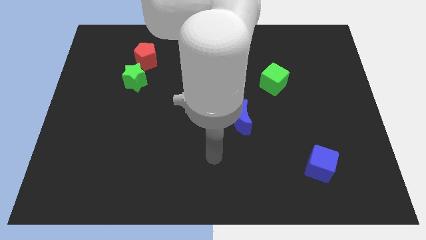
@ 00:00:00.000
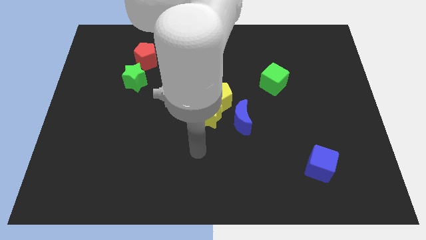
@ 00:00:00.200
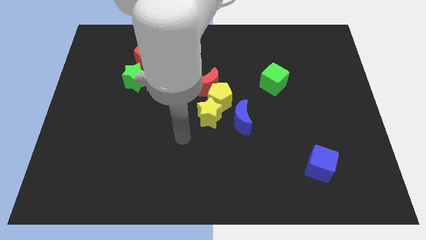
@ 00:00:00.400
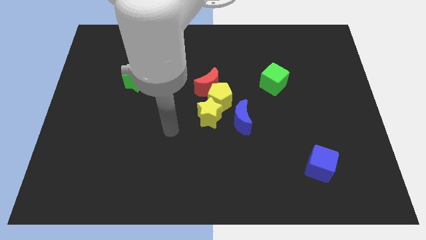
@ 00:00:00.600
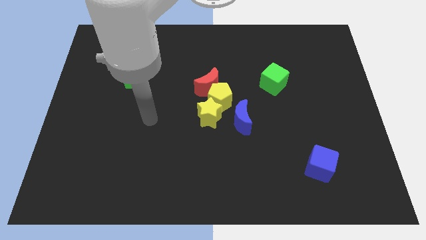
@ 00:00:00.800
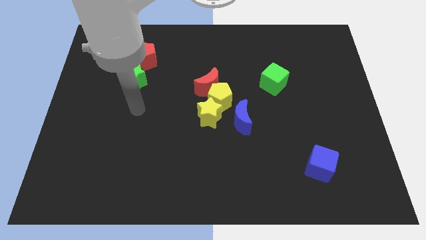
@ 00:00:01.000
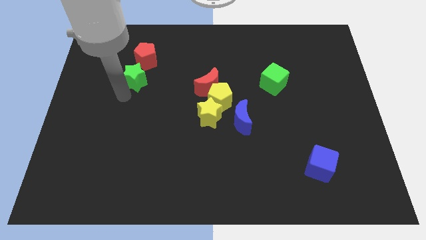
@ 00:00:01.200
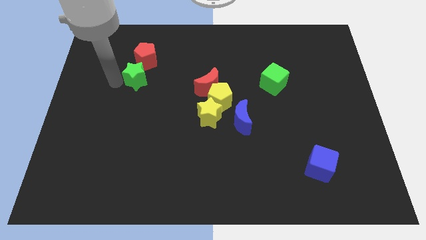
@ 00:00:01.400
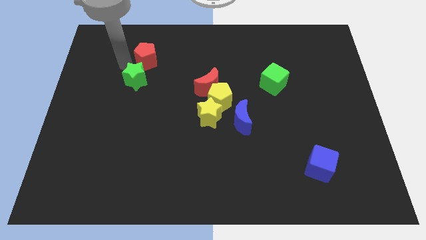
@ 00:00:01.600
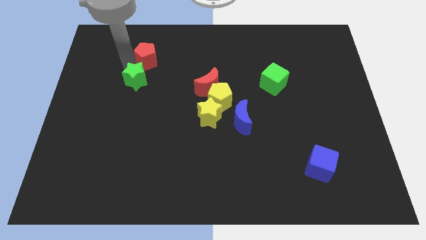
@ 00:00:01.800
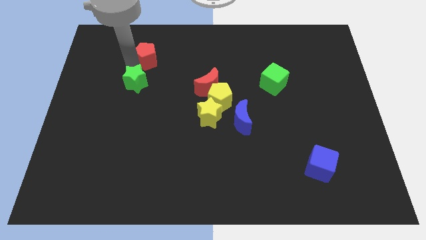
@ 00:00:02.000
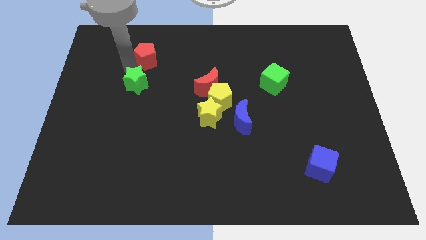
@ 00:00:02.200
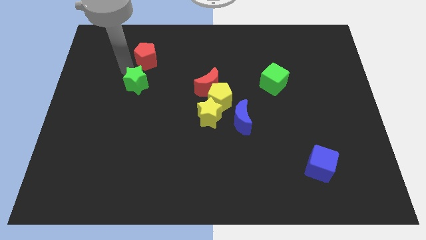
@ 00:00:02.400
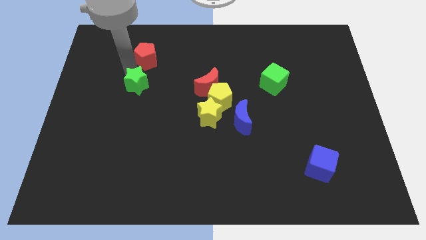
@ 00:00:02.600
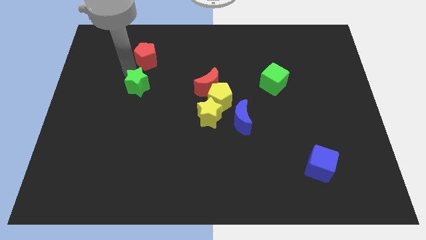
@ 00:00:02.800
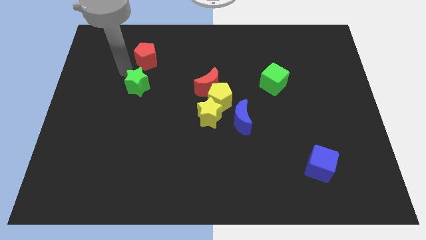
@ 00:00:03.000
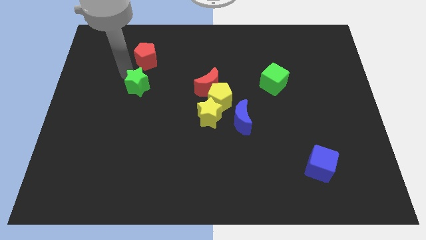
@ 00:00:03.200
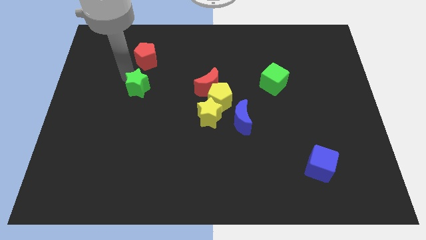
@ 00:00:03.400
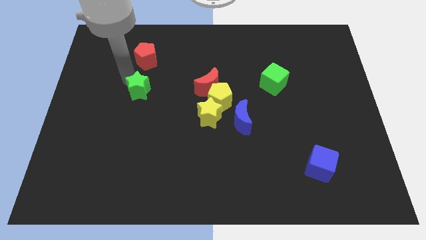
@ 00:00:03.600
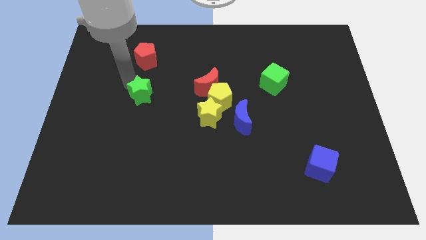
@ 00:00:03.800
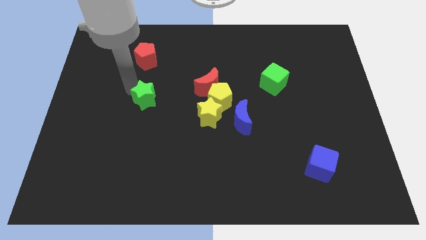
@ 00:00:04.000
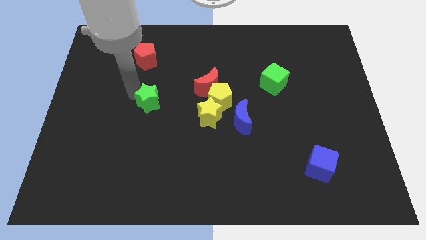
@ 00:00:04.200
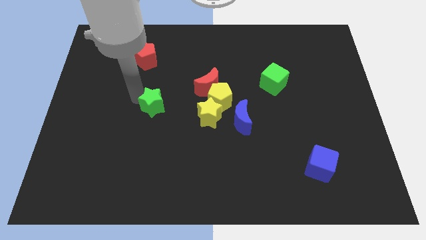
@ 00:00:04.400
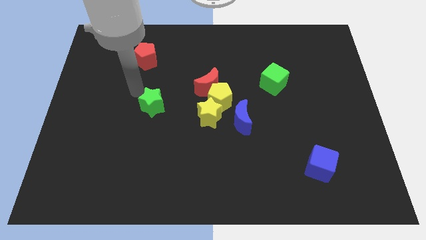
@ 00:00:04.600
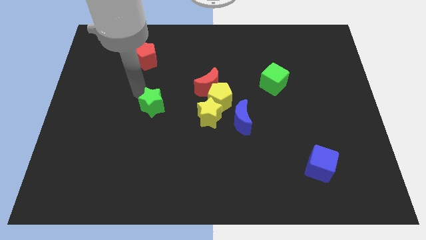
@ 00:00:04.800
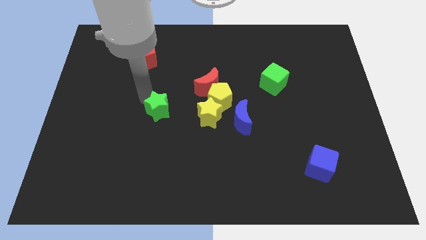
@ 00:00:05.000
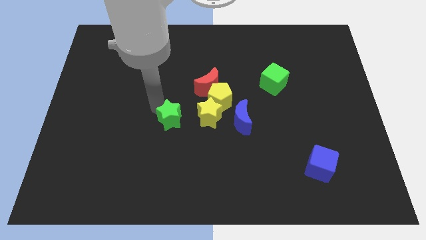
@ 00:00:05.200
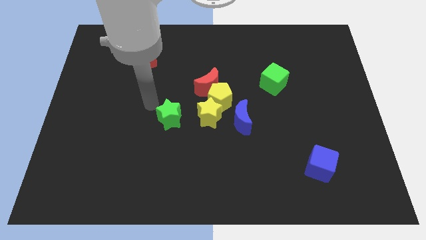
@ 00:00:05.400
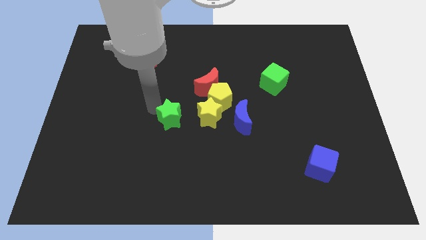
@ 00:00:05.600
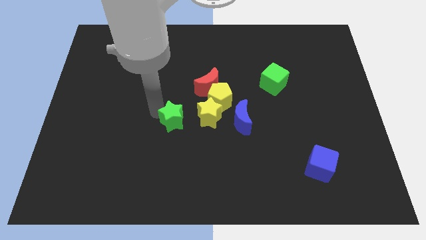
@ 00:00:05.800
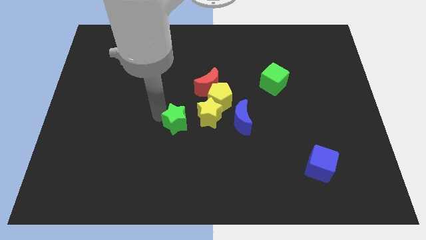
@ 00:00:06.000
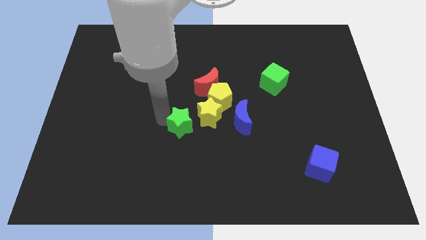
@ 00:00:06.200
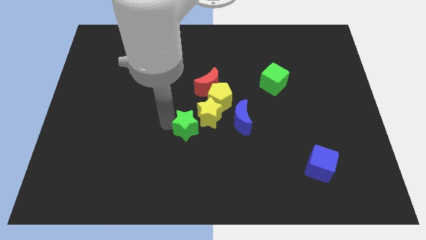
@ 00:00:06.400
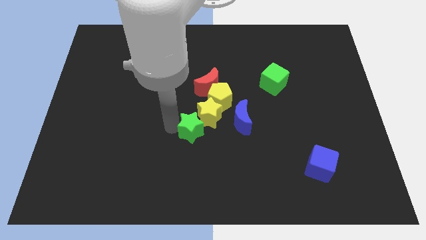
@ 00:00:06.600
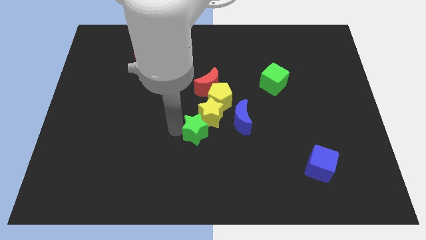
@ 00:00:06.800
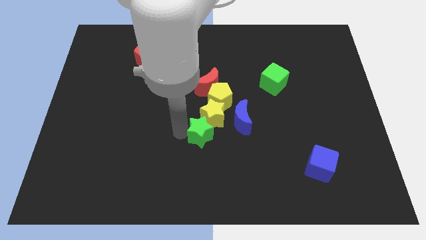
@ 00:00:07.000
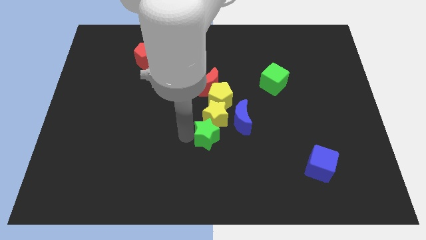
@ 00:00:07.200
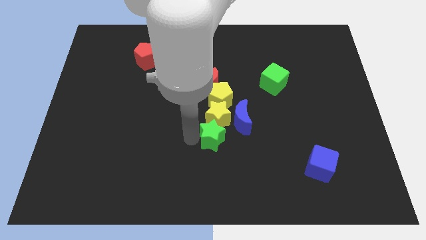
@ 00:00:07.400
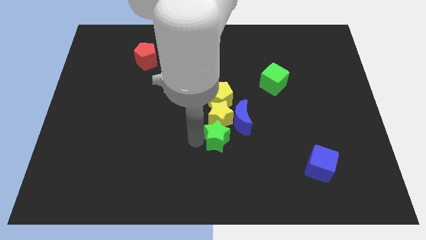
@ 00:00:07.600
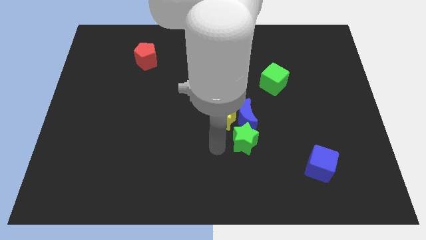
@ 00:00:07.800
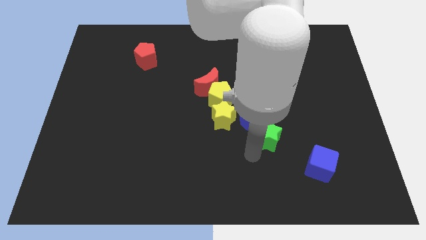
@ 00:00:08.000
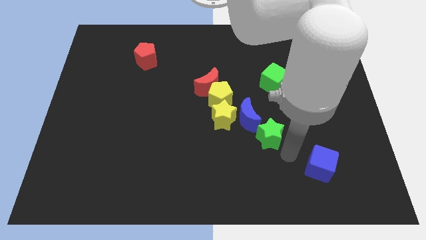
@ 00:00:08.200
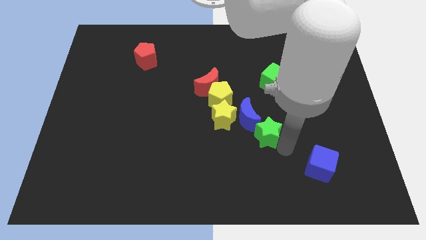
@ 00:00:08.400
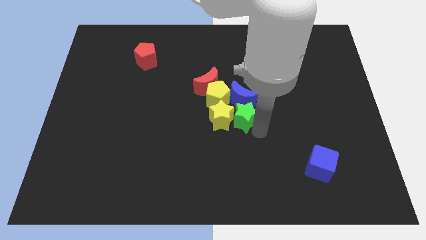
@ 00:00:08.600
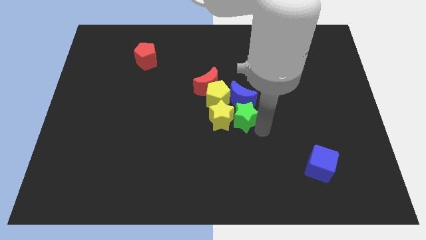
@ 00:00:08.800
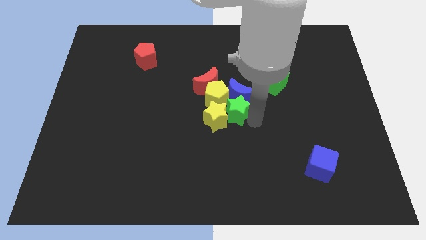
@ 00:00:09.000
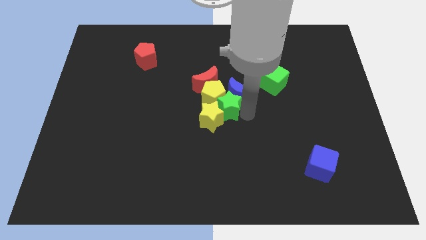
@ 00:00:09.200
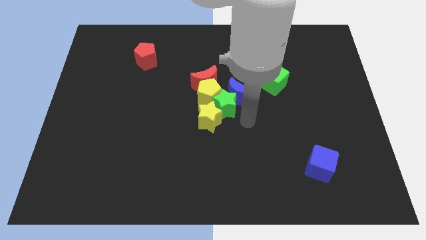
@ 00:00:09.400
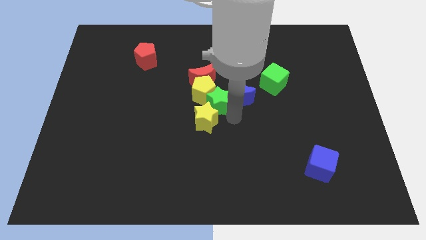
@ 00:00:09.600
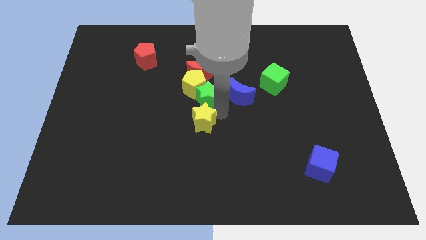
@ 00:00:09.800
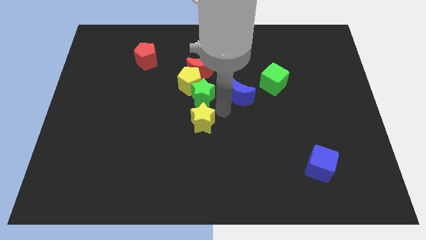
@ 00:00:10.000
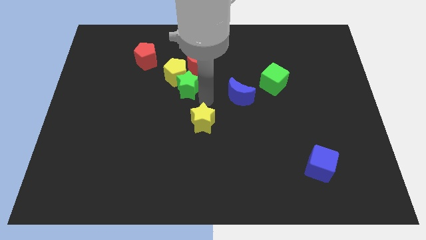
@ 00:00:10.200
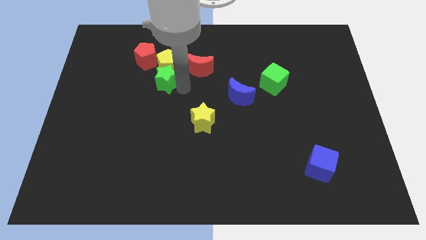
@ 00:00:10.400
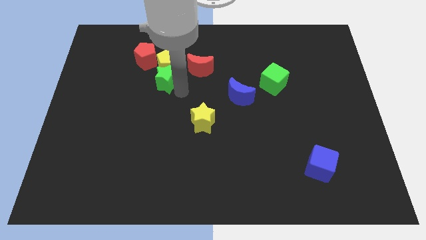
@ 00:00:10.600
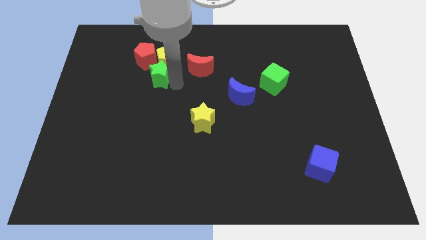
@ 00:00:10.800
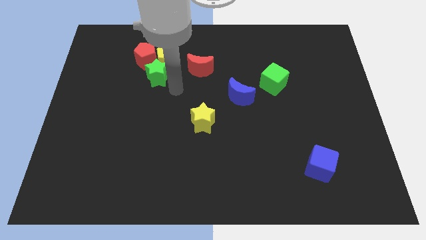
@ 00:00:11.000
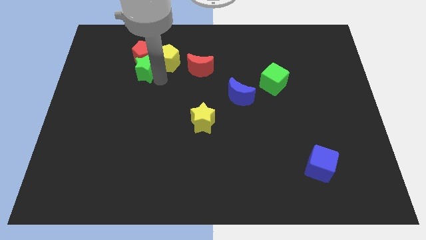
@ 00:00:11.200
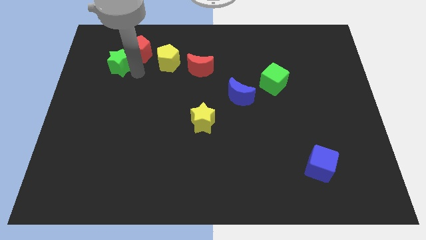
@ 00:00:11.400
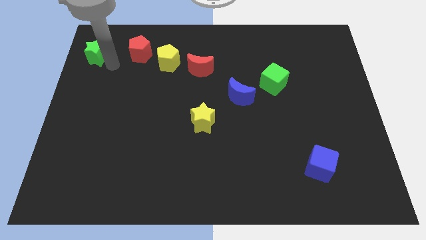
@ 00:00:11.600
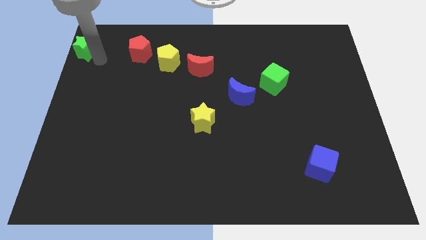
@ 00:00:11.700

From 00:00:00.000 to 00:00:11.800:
slide the green star to the top left corner

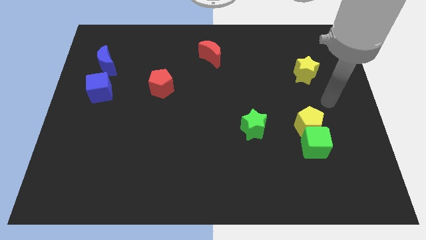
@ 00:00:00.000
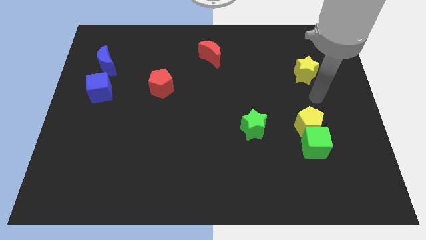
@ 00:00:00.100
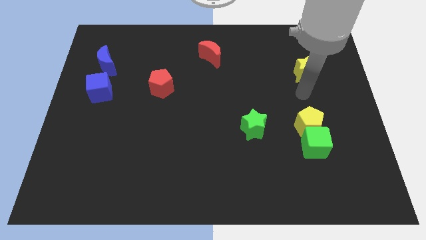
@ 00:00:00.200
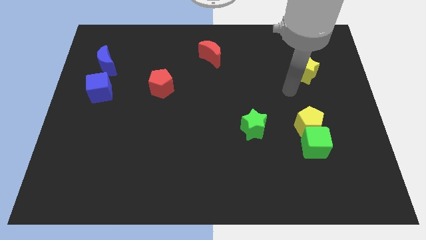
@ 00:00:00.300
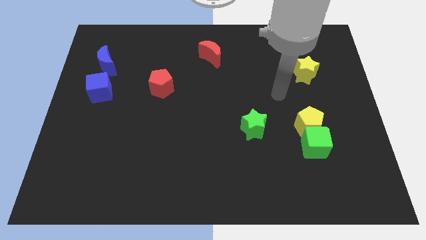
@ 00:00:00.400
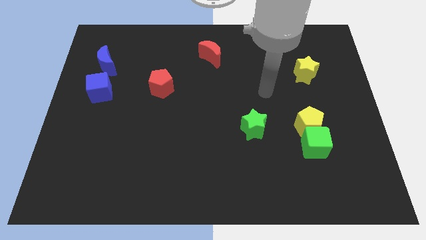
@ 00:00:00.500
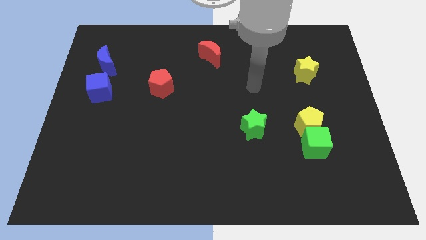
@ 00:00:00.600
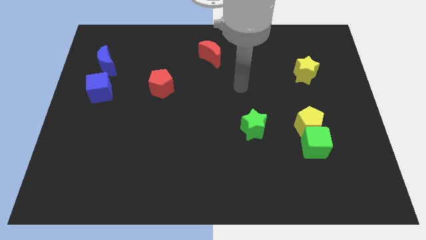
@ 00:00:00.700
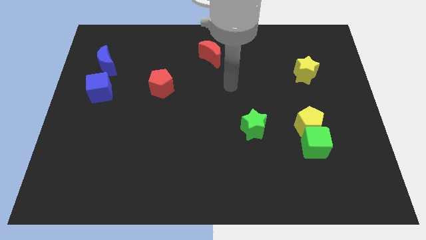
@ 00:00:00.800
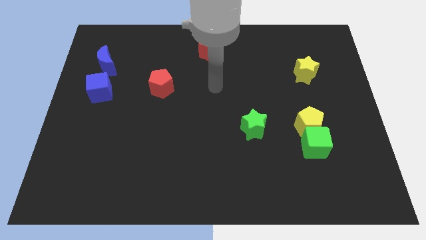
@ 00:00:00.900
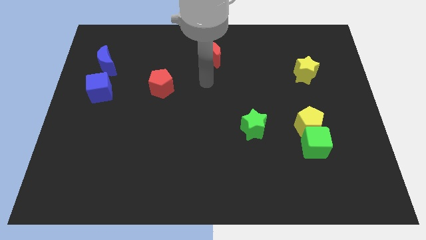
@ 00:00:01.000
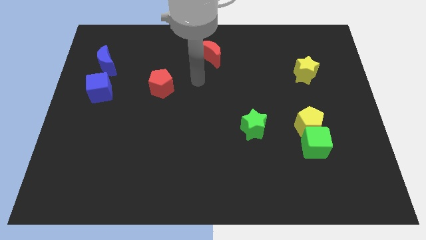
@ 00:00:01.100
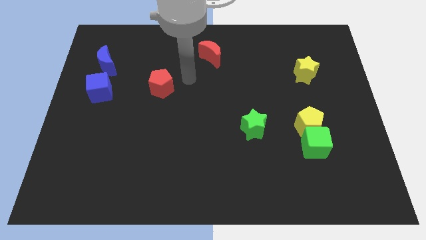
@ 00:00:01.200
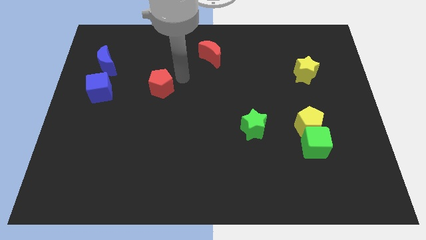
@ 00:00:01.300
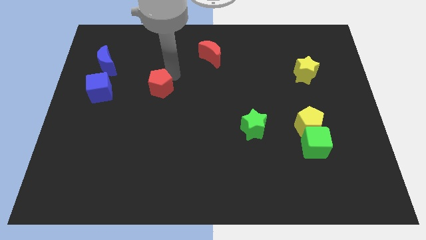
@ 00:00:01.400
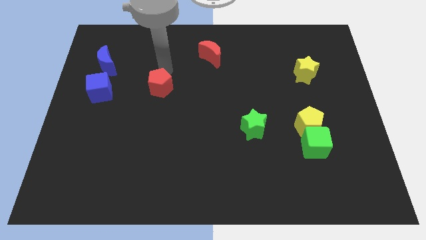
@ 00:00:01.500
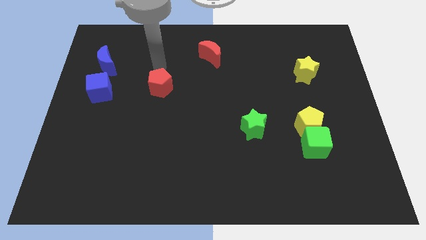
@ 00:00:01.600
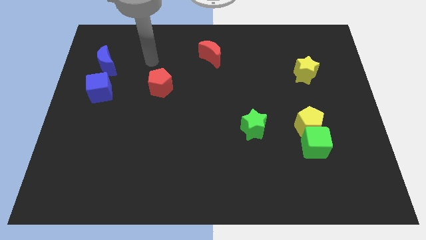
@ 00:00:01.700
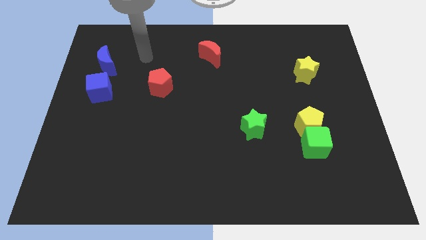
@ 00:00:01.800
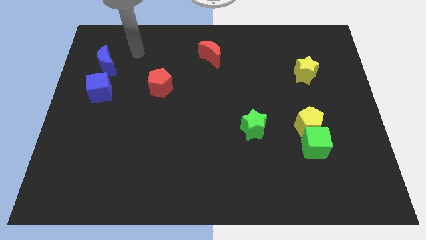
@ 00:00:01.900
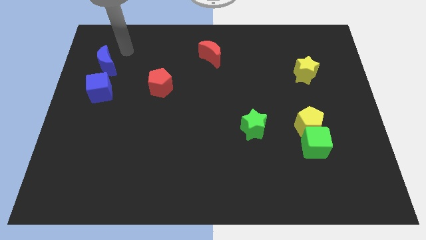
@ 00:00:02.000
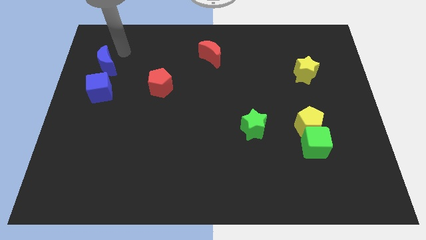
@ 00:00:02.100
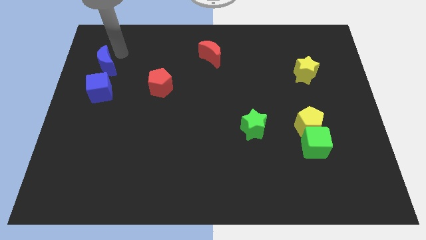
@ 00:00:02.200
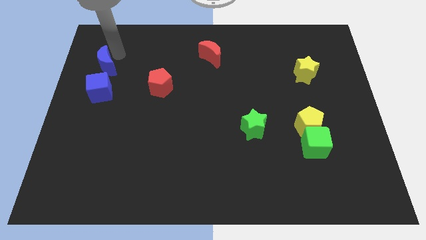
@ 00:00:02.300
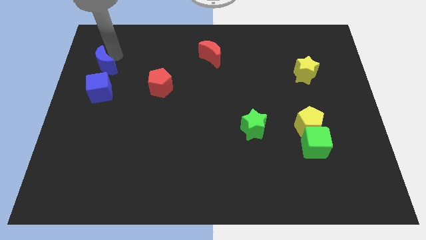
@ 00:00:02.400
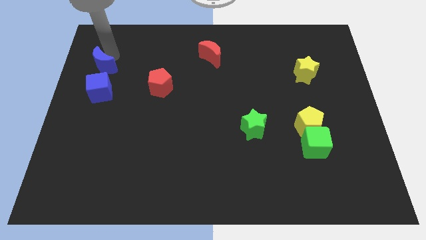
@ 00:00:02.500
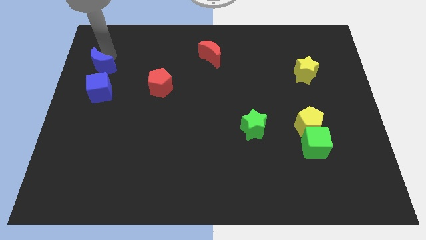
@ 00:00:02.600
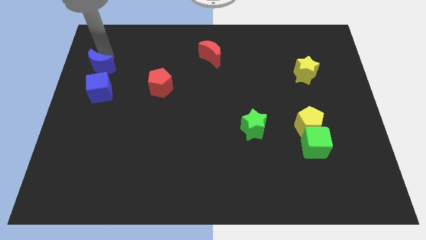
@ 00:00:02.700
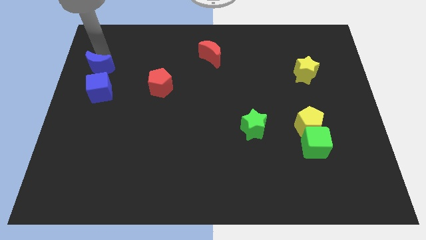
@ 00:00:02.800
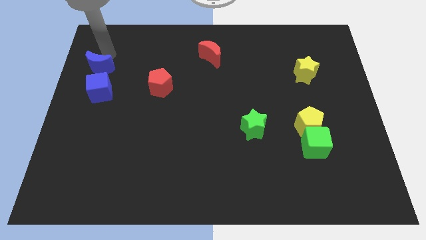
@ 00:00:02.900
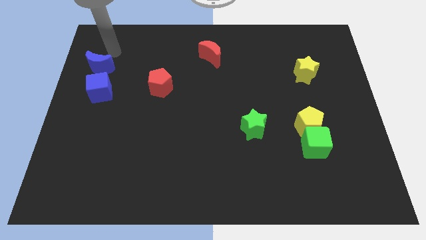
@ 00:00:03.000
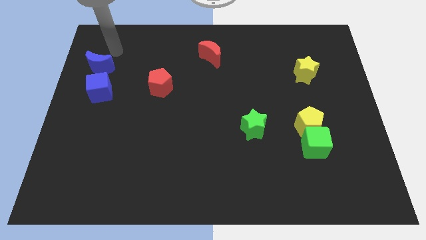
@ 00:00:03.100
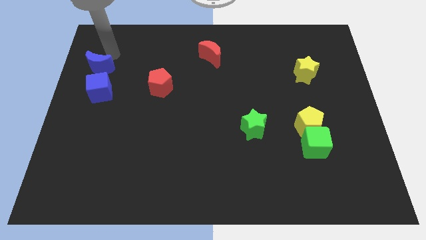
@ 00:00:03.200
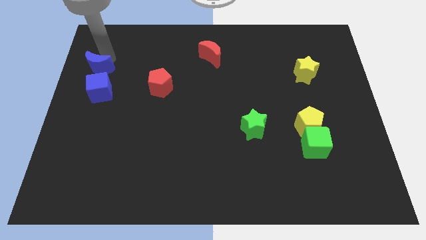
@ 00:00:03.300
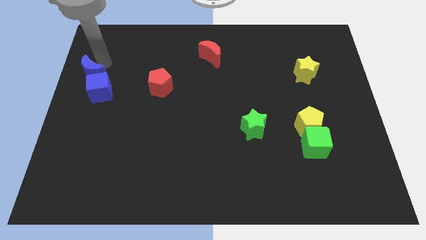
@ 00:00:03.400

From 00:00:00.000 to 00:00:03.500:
push the blue moon to the left side
